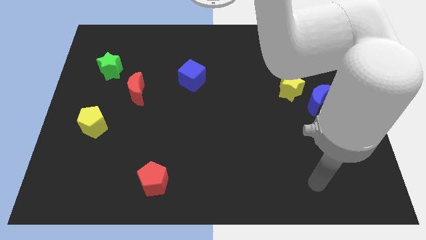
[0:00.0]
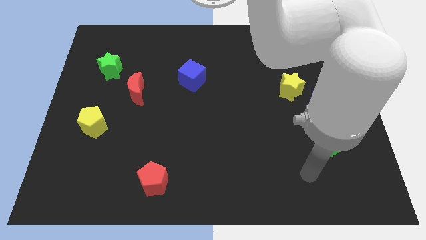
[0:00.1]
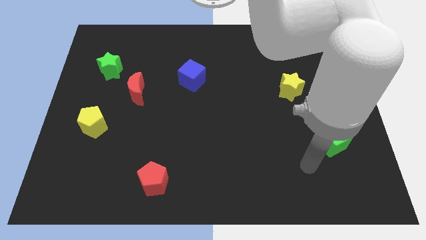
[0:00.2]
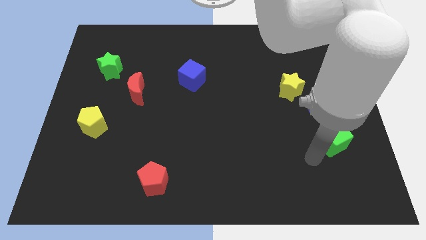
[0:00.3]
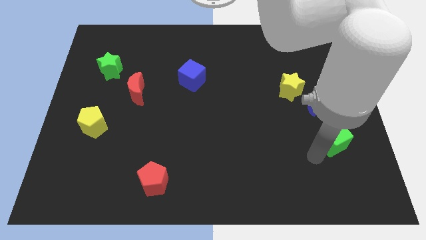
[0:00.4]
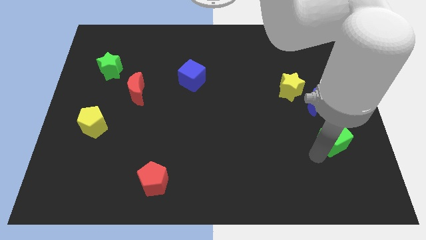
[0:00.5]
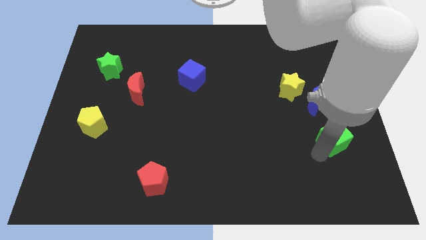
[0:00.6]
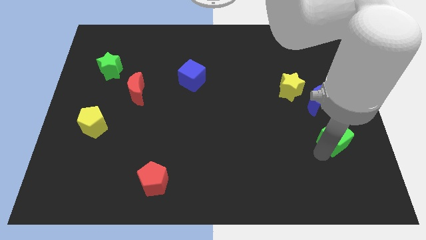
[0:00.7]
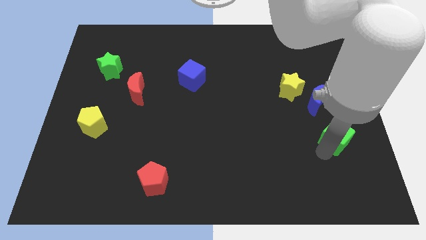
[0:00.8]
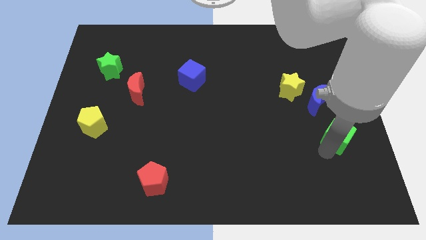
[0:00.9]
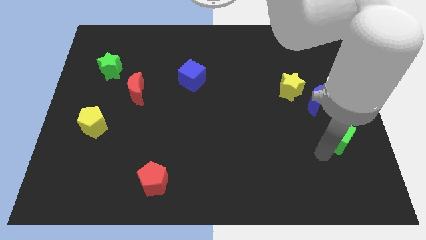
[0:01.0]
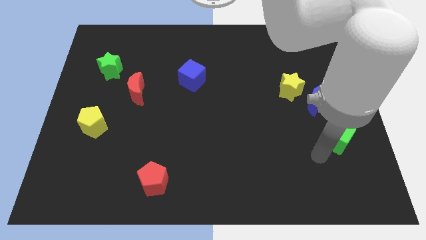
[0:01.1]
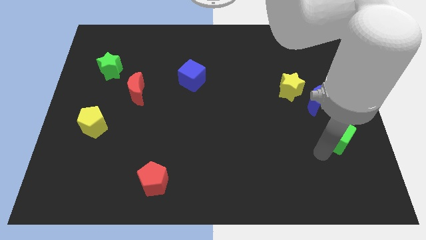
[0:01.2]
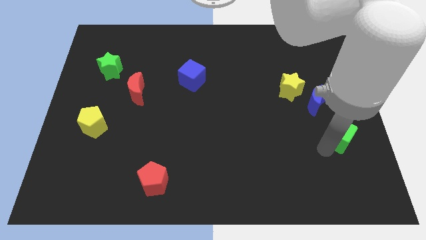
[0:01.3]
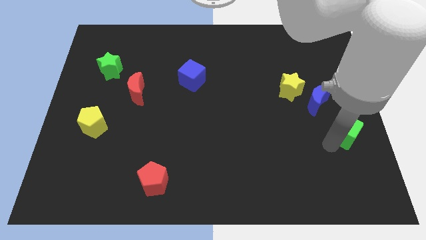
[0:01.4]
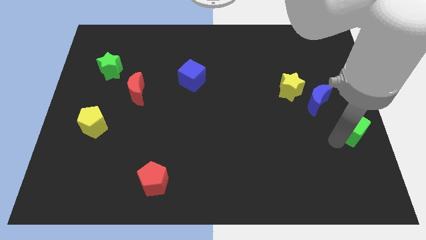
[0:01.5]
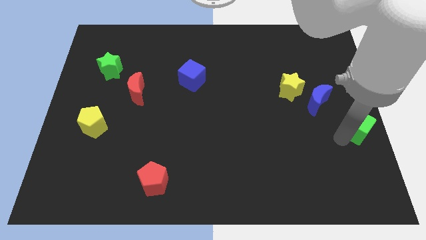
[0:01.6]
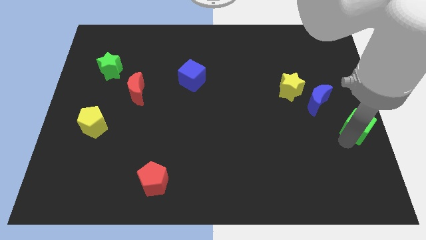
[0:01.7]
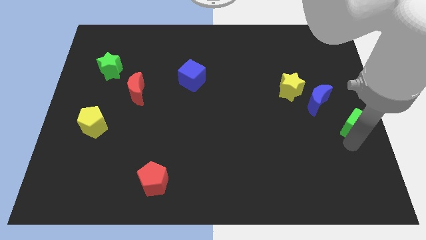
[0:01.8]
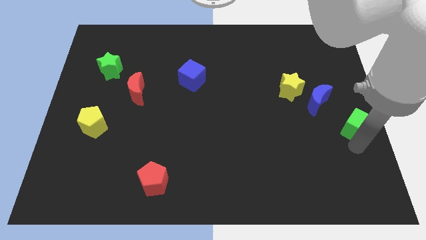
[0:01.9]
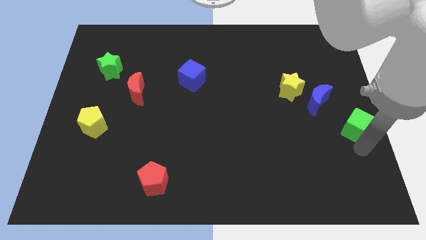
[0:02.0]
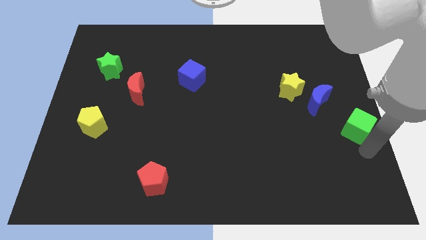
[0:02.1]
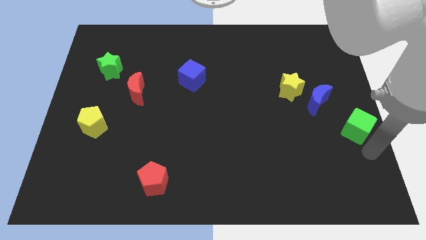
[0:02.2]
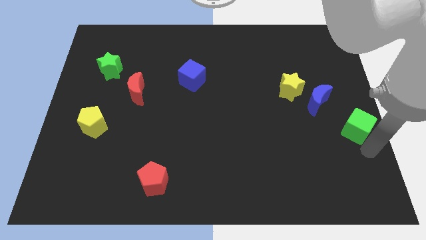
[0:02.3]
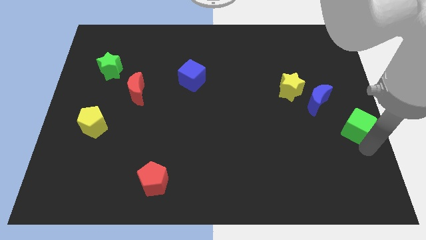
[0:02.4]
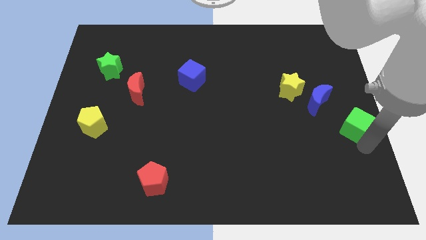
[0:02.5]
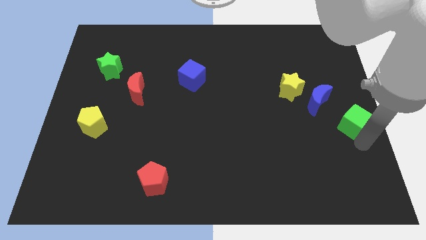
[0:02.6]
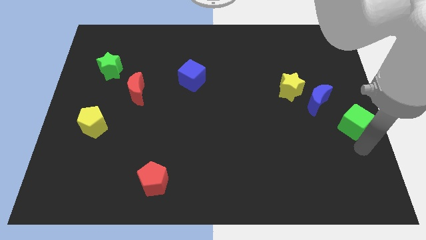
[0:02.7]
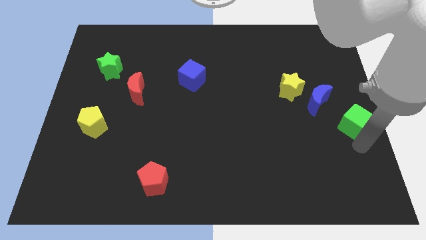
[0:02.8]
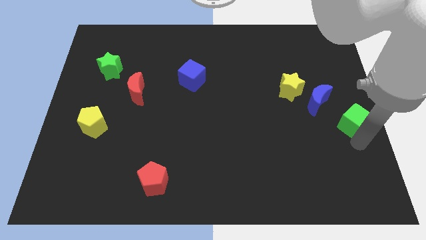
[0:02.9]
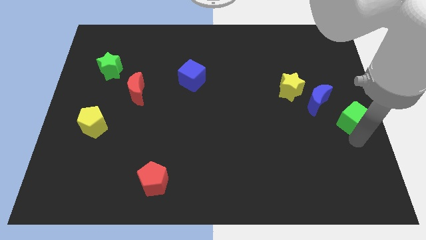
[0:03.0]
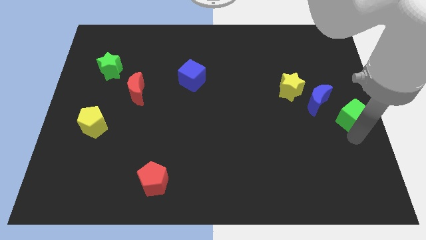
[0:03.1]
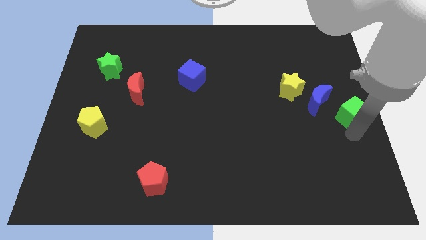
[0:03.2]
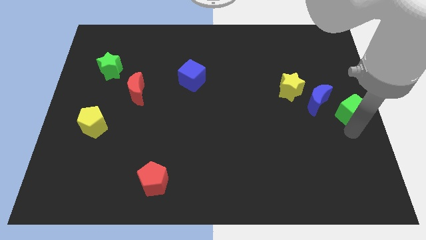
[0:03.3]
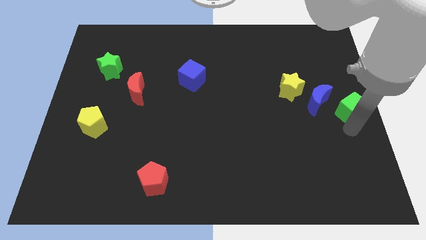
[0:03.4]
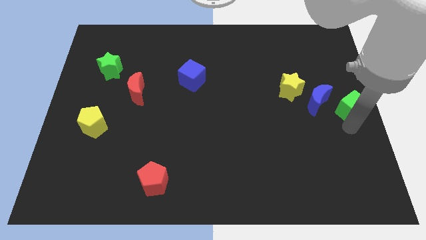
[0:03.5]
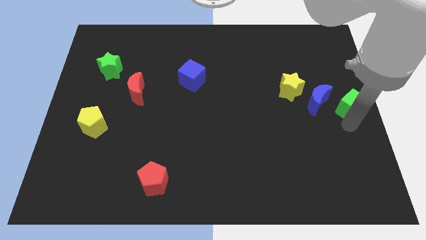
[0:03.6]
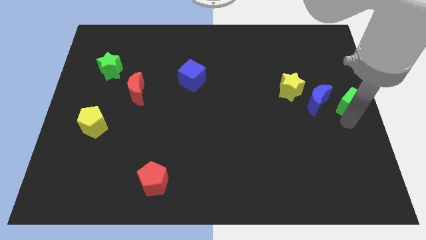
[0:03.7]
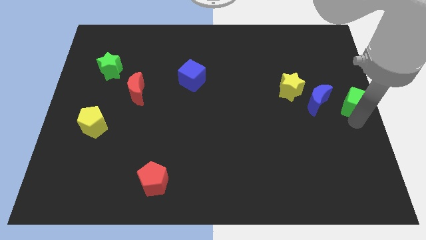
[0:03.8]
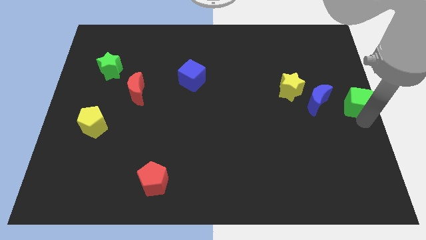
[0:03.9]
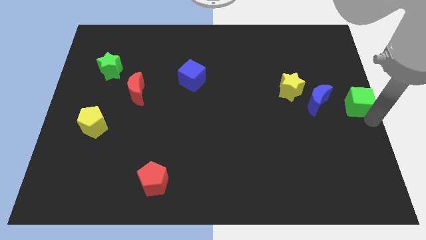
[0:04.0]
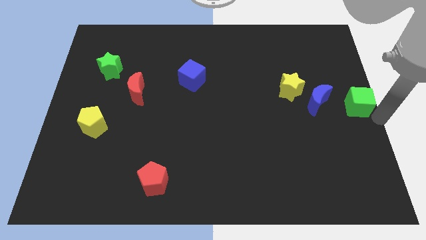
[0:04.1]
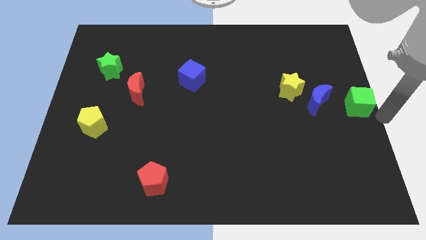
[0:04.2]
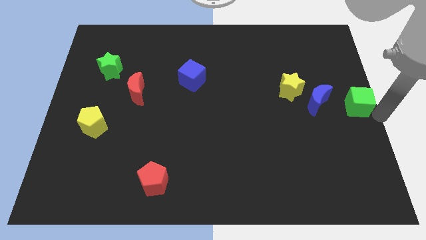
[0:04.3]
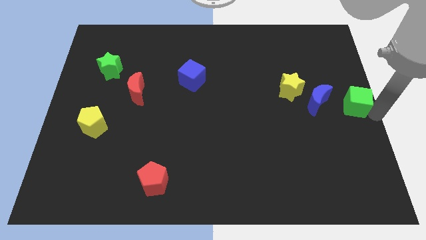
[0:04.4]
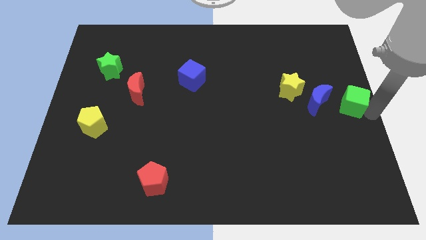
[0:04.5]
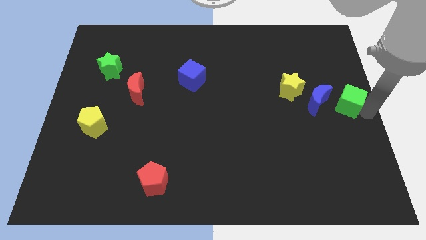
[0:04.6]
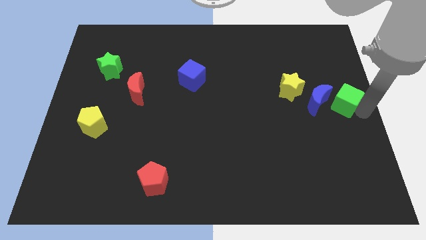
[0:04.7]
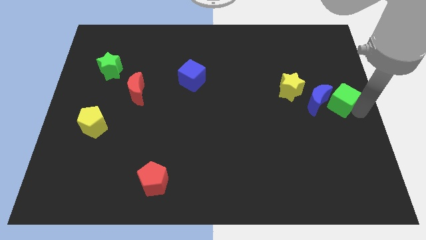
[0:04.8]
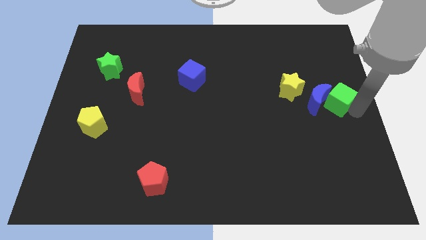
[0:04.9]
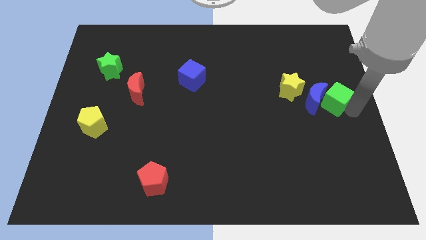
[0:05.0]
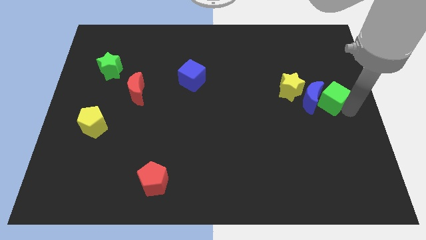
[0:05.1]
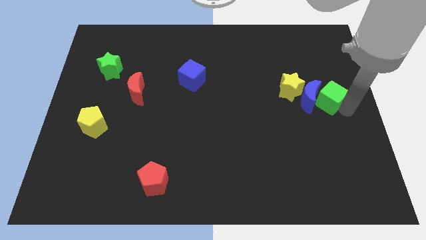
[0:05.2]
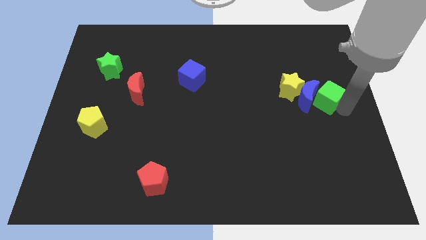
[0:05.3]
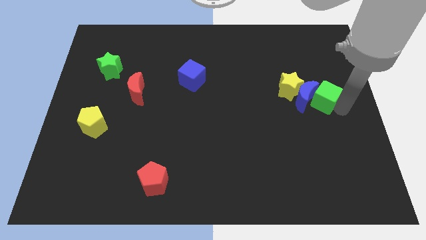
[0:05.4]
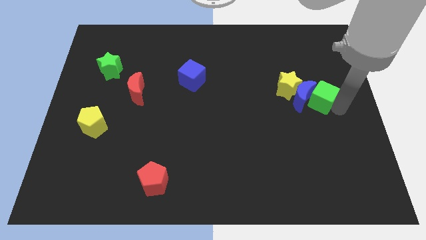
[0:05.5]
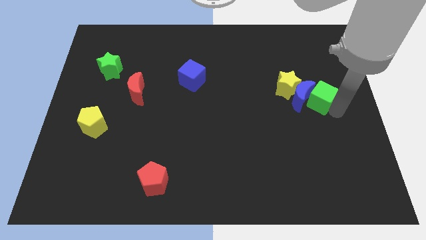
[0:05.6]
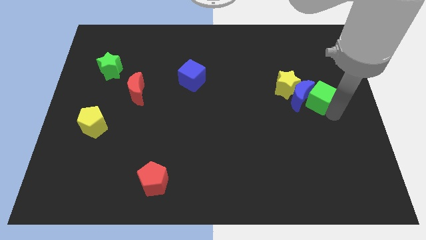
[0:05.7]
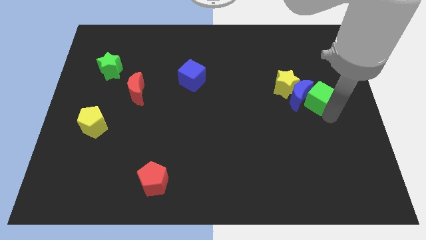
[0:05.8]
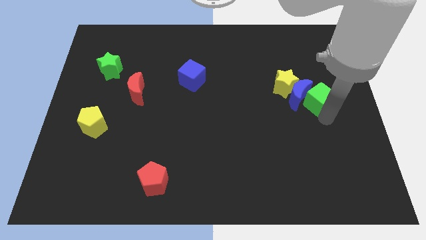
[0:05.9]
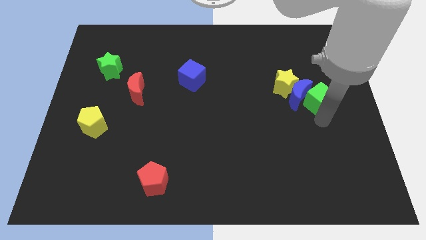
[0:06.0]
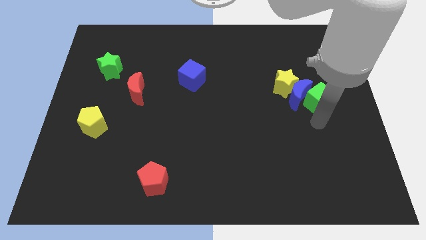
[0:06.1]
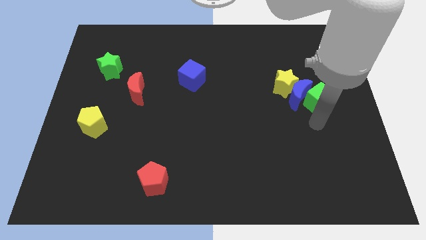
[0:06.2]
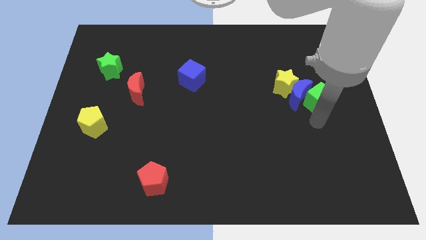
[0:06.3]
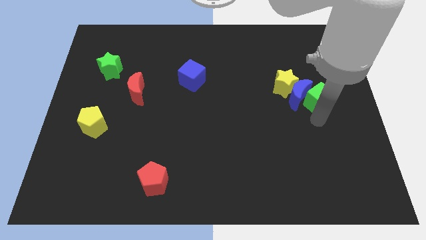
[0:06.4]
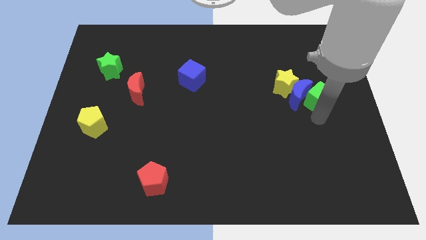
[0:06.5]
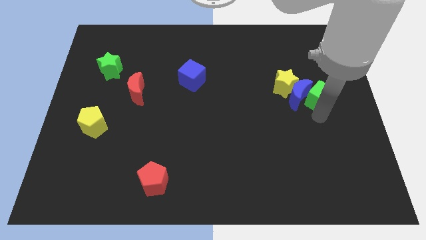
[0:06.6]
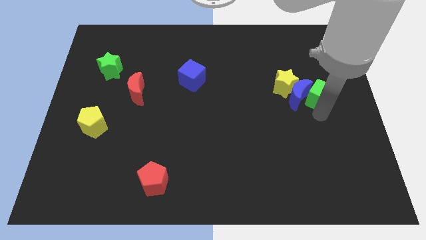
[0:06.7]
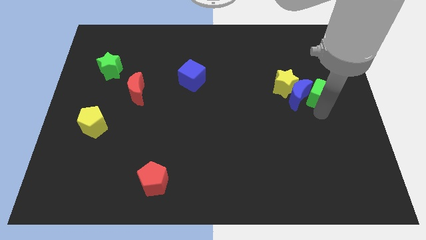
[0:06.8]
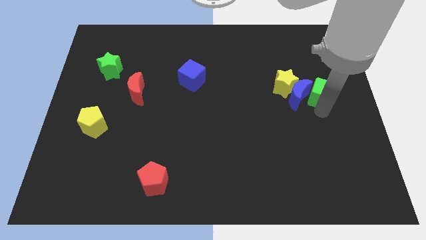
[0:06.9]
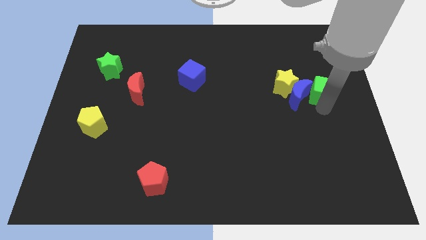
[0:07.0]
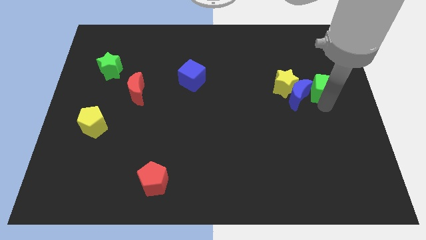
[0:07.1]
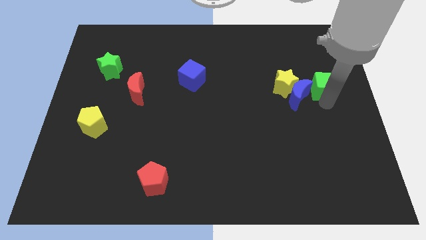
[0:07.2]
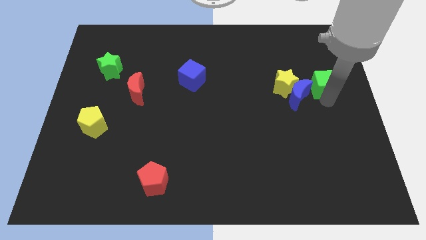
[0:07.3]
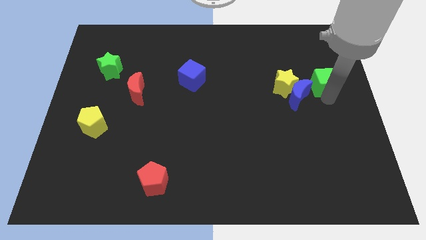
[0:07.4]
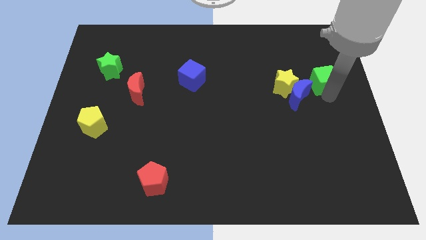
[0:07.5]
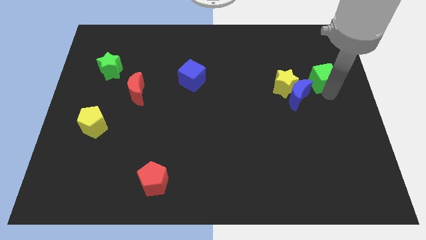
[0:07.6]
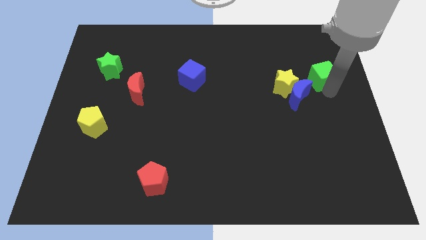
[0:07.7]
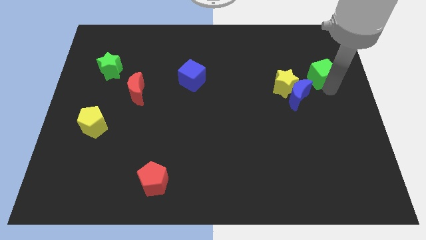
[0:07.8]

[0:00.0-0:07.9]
push the green cube to the top right of the yellow star
